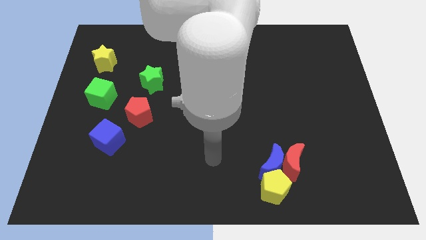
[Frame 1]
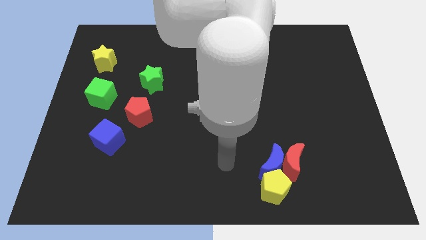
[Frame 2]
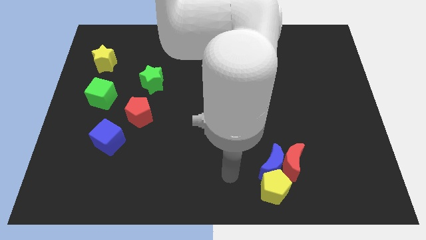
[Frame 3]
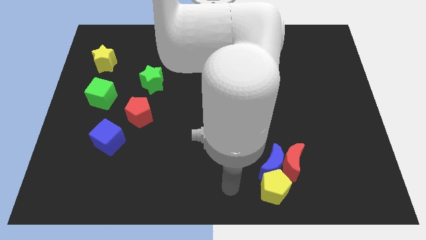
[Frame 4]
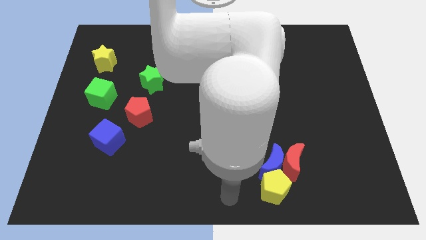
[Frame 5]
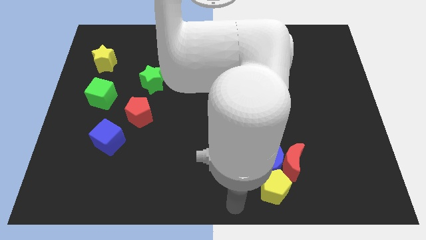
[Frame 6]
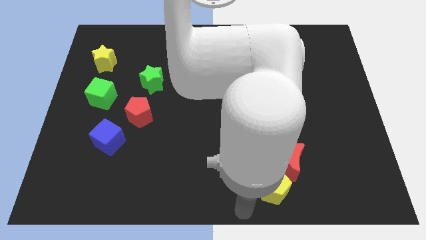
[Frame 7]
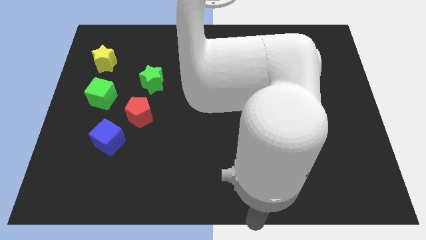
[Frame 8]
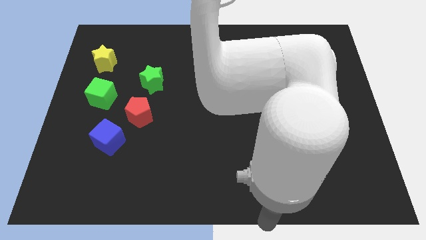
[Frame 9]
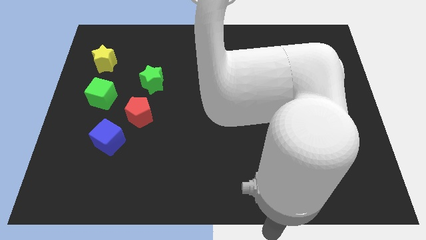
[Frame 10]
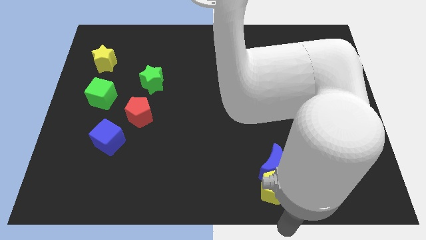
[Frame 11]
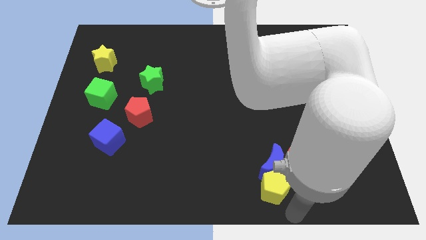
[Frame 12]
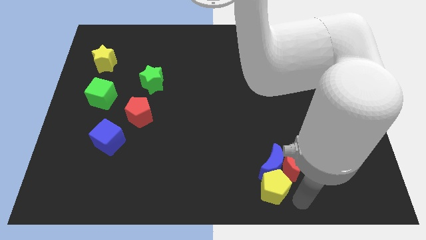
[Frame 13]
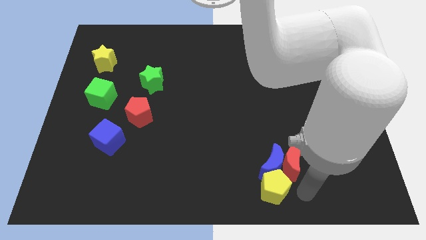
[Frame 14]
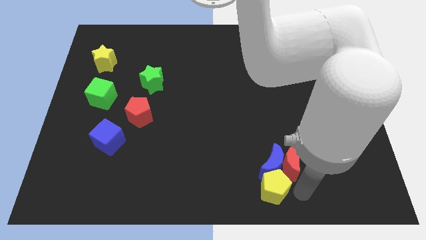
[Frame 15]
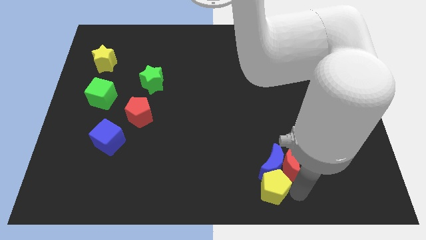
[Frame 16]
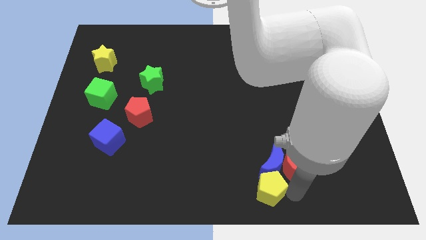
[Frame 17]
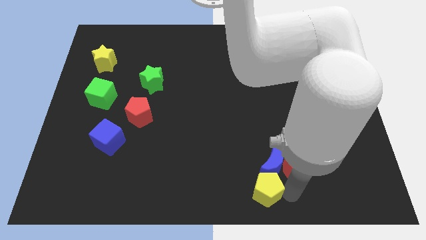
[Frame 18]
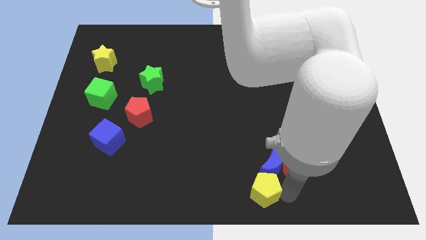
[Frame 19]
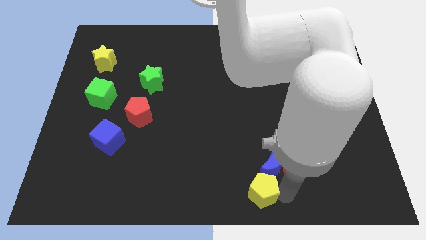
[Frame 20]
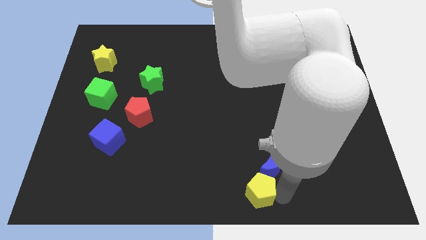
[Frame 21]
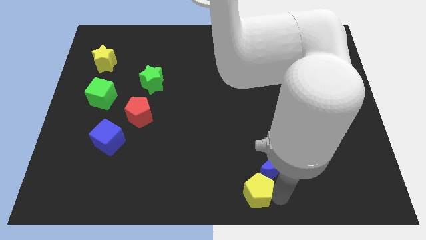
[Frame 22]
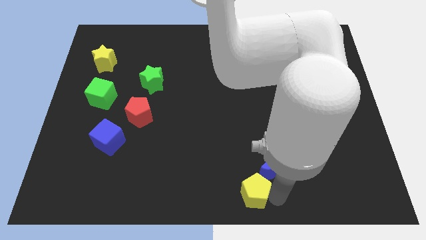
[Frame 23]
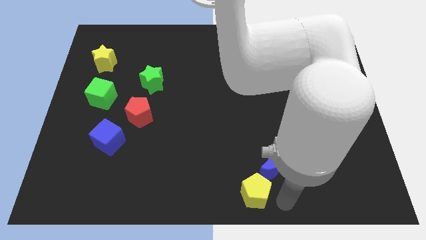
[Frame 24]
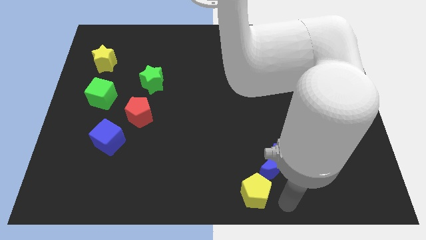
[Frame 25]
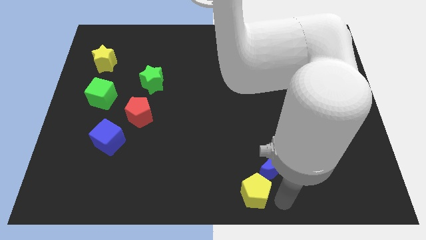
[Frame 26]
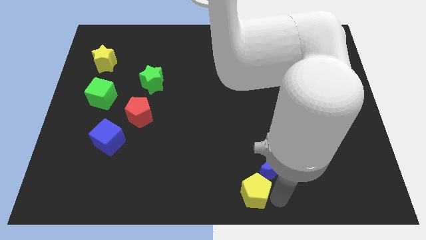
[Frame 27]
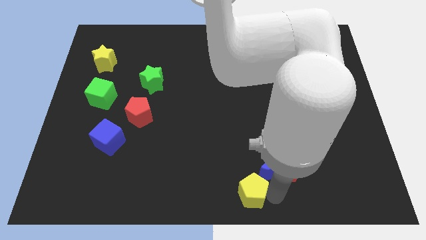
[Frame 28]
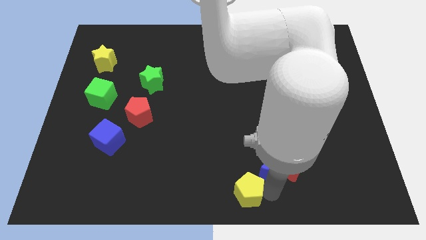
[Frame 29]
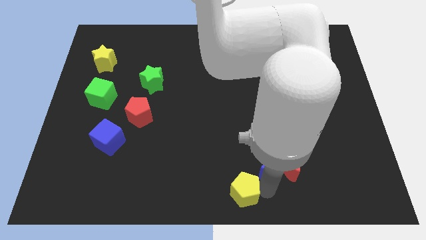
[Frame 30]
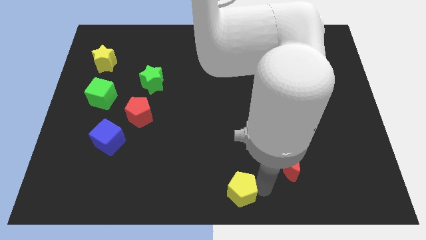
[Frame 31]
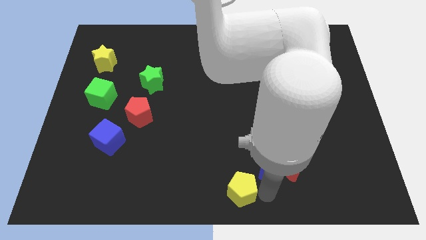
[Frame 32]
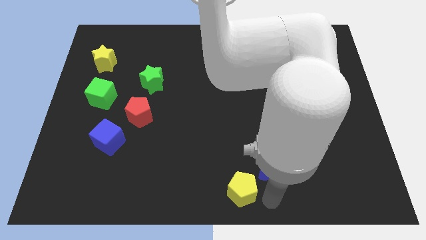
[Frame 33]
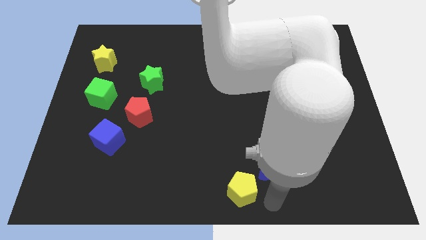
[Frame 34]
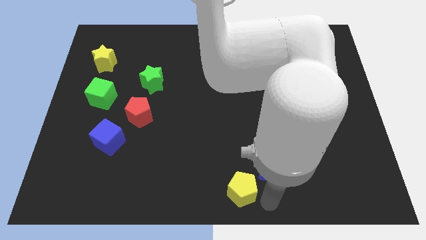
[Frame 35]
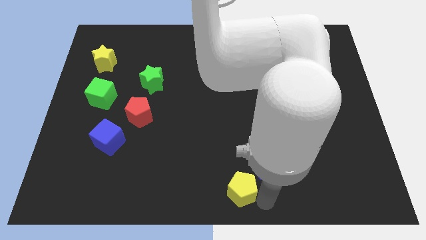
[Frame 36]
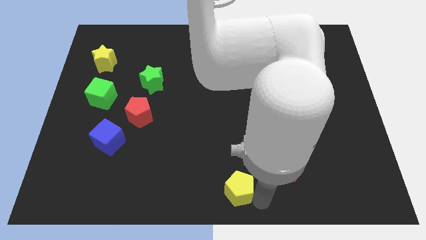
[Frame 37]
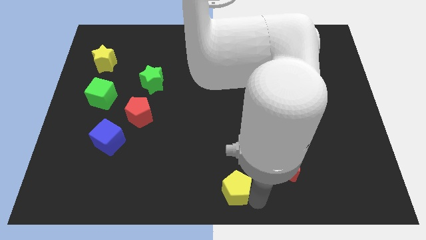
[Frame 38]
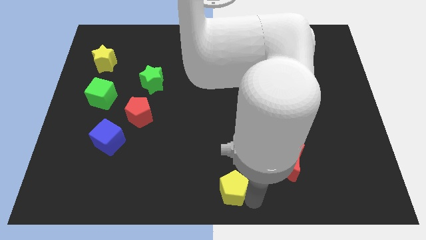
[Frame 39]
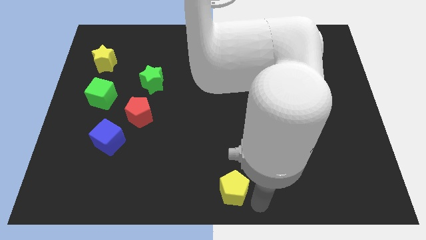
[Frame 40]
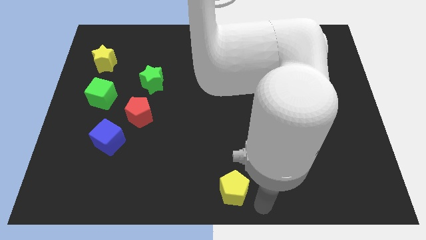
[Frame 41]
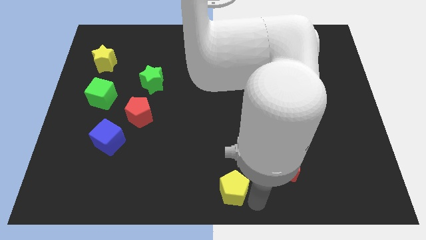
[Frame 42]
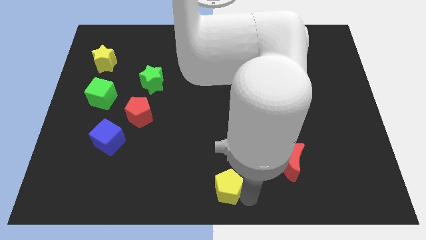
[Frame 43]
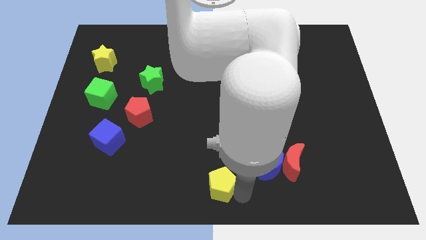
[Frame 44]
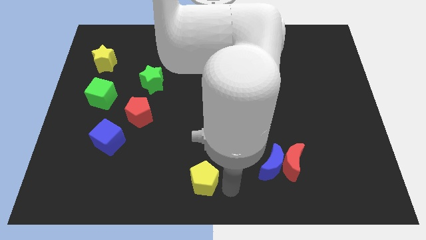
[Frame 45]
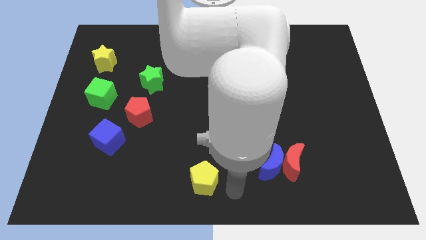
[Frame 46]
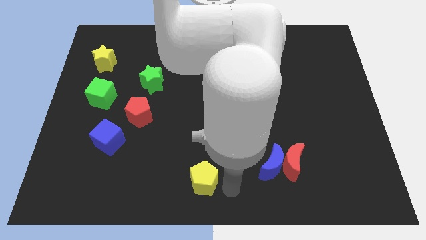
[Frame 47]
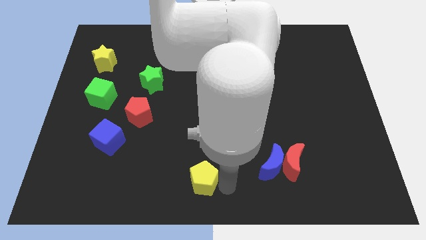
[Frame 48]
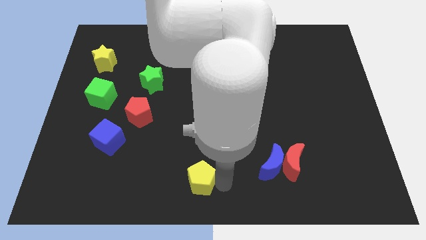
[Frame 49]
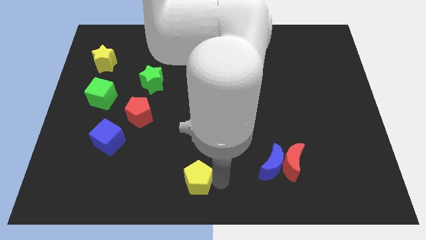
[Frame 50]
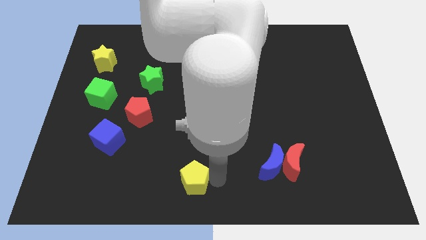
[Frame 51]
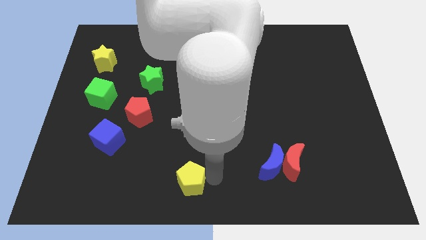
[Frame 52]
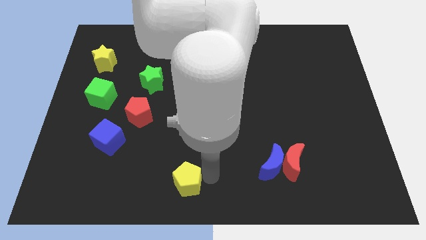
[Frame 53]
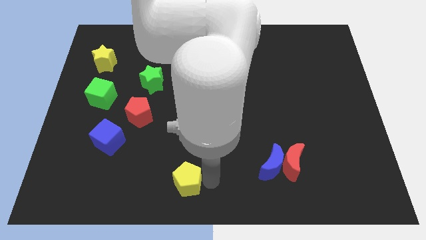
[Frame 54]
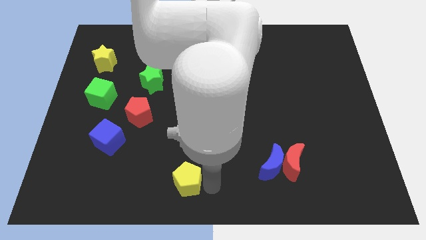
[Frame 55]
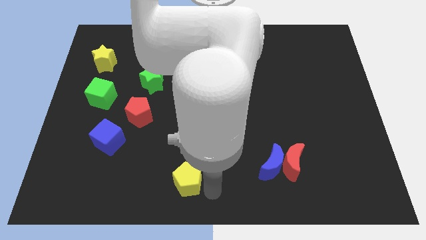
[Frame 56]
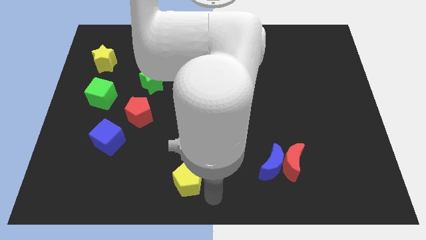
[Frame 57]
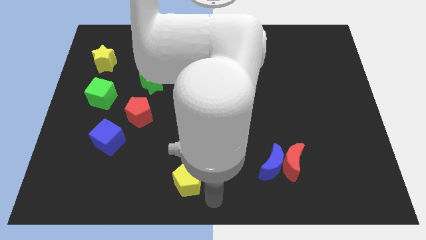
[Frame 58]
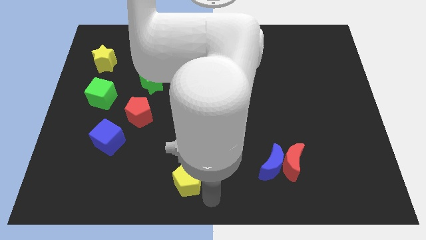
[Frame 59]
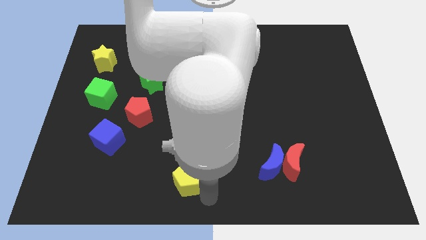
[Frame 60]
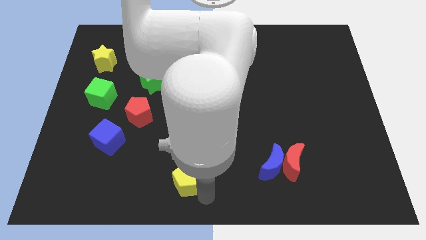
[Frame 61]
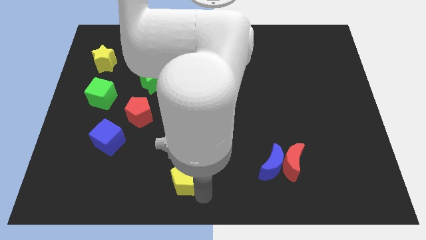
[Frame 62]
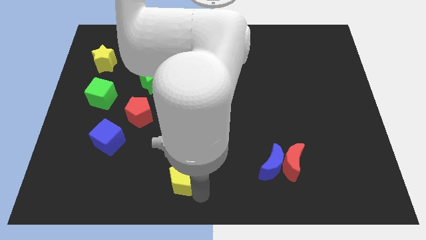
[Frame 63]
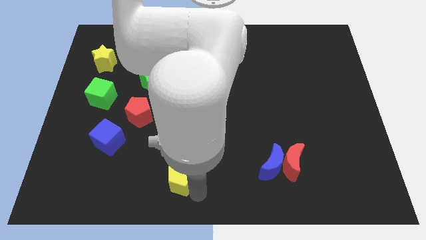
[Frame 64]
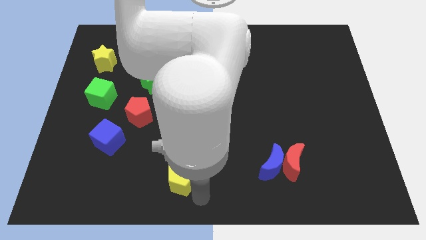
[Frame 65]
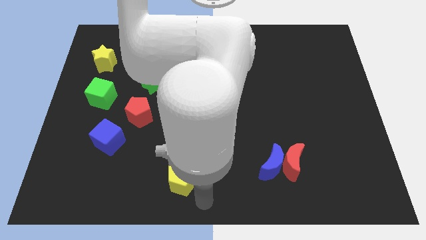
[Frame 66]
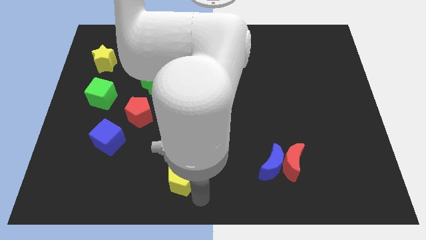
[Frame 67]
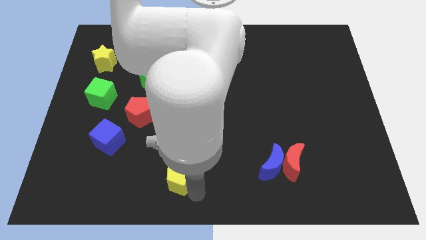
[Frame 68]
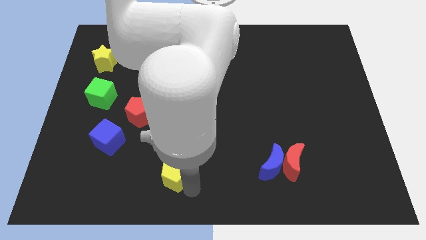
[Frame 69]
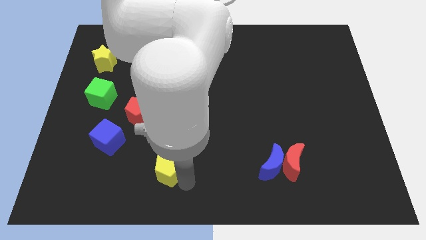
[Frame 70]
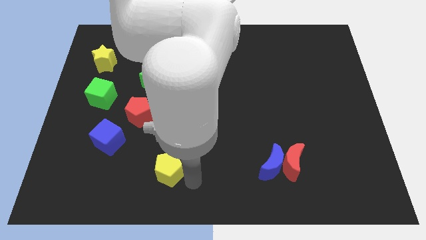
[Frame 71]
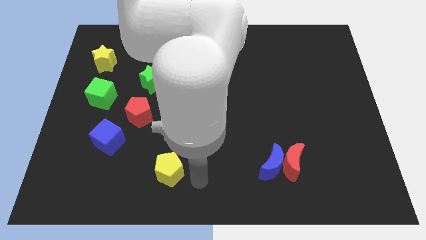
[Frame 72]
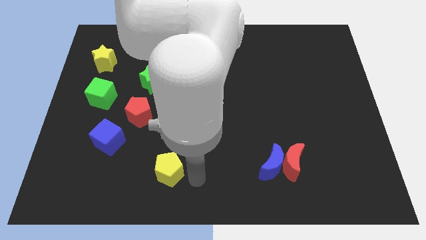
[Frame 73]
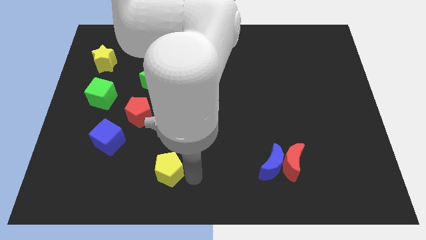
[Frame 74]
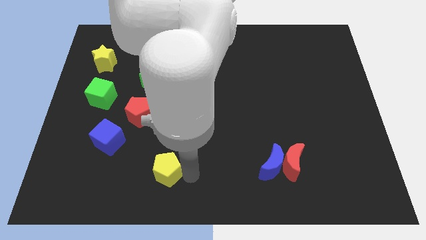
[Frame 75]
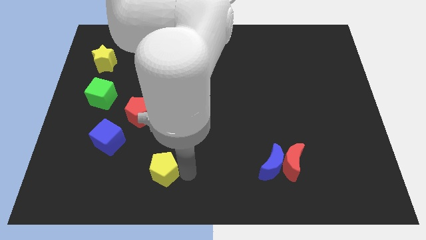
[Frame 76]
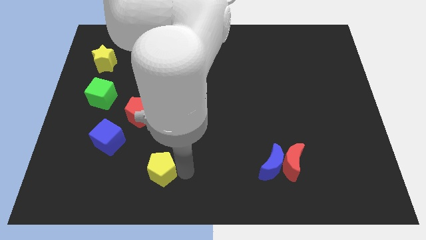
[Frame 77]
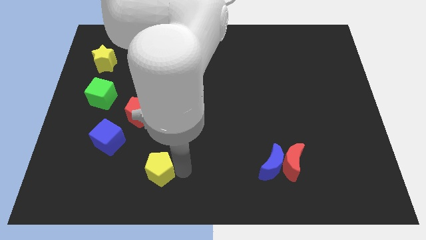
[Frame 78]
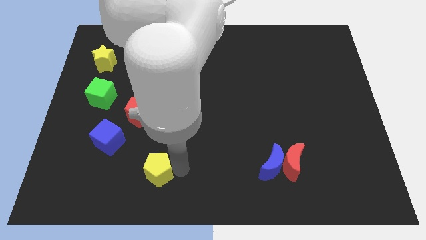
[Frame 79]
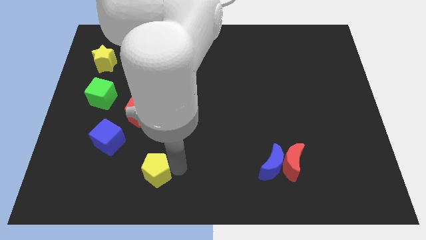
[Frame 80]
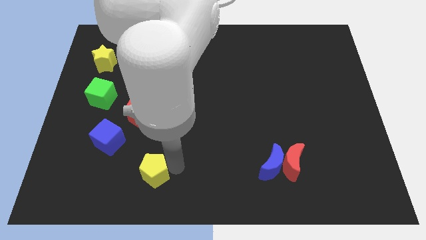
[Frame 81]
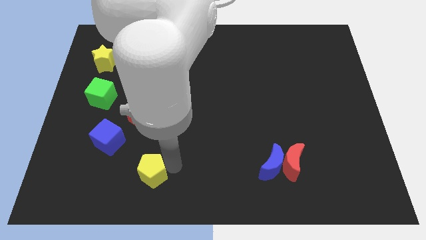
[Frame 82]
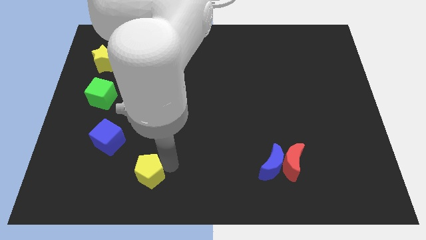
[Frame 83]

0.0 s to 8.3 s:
move the yellow pentagon diagonally down and to the right of the blue cube
